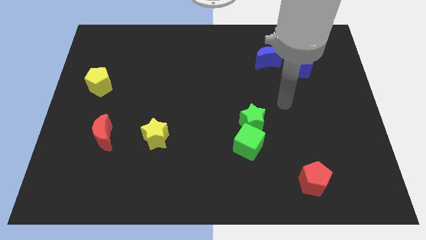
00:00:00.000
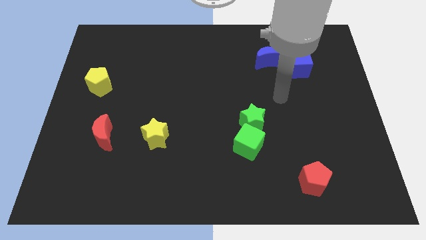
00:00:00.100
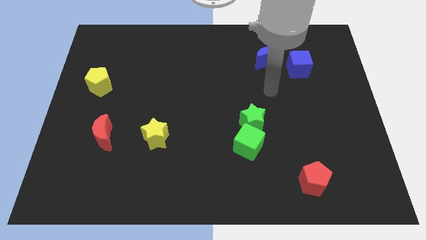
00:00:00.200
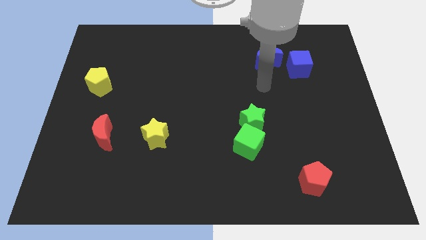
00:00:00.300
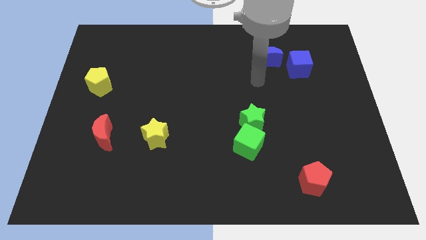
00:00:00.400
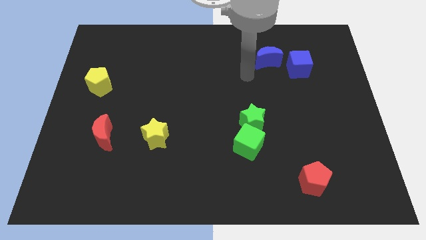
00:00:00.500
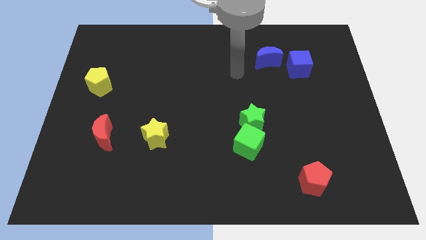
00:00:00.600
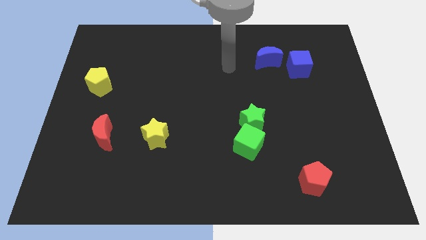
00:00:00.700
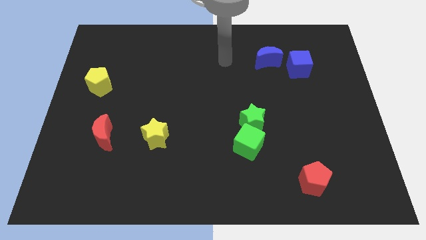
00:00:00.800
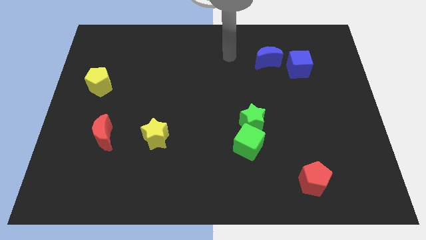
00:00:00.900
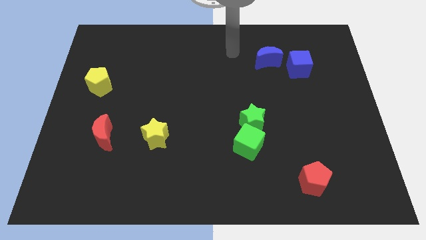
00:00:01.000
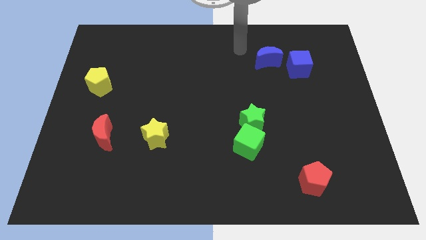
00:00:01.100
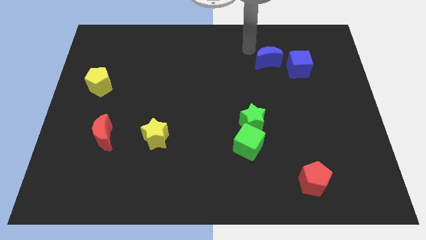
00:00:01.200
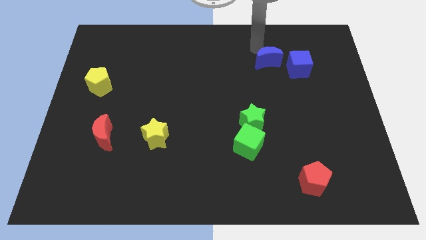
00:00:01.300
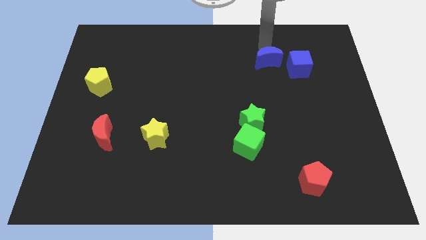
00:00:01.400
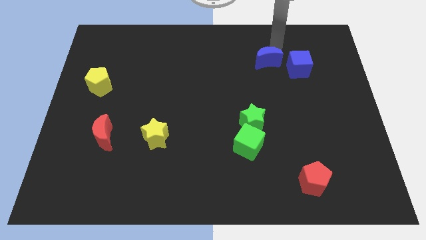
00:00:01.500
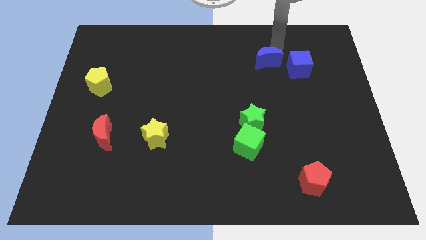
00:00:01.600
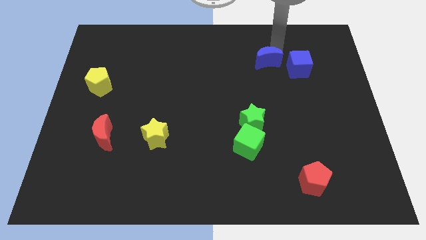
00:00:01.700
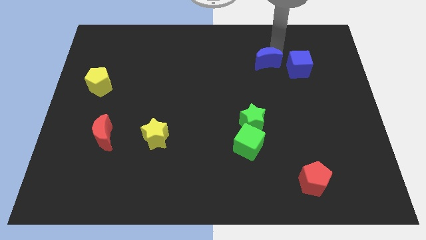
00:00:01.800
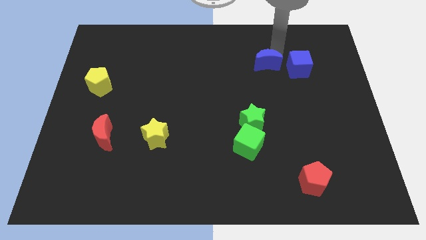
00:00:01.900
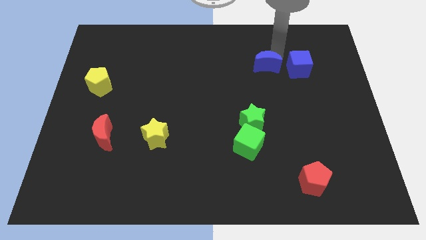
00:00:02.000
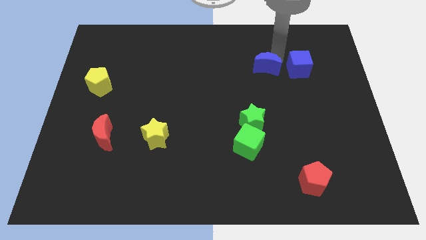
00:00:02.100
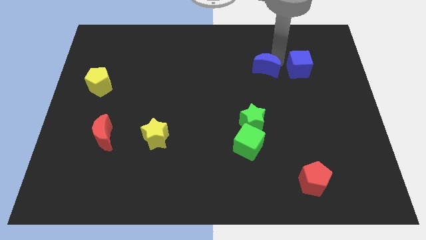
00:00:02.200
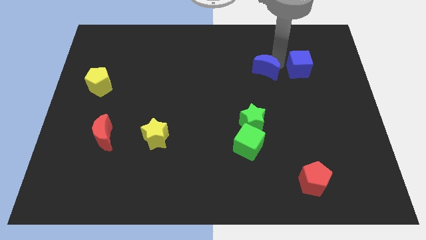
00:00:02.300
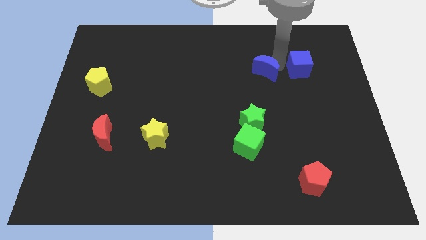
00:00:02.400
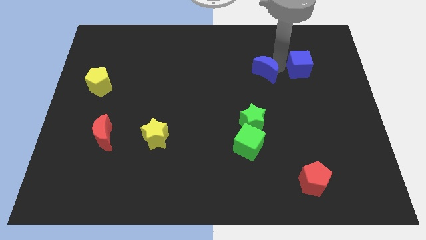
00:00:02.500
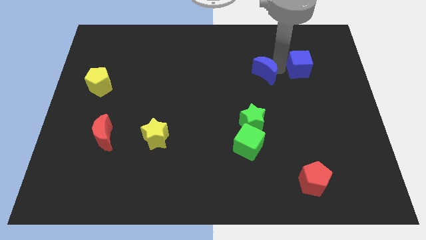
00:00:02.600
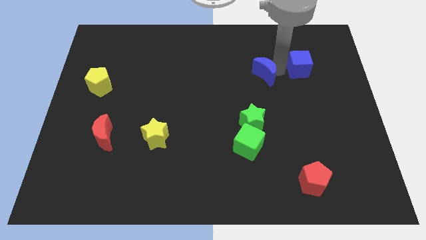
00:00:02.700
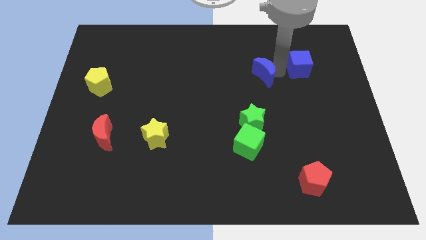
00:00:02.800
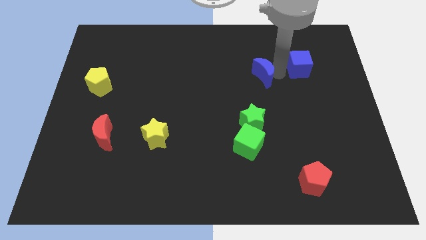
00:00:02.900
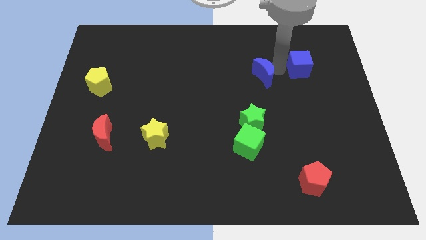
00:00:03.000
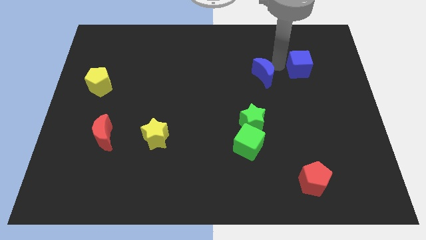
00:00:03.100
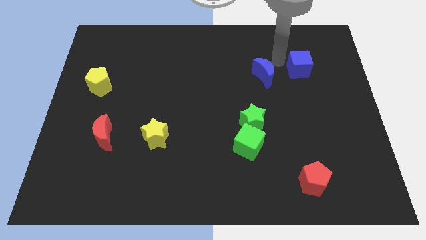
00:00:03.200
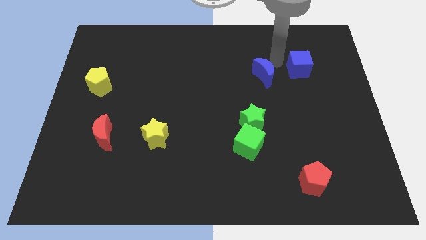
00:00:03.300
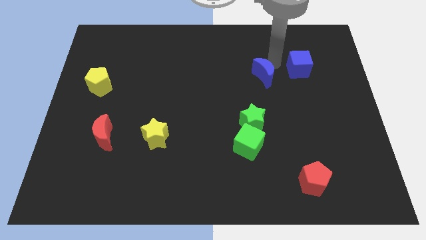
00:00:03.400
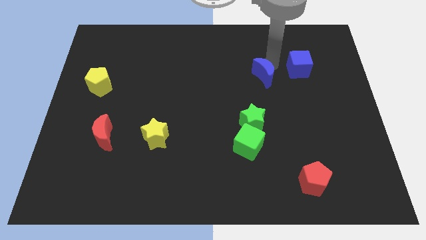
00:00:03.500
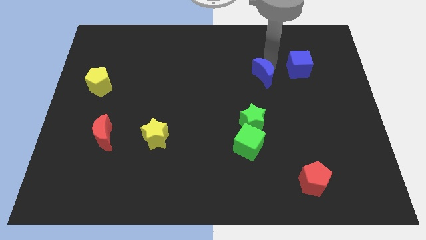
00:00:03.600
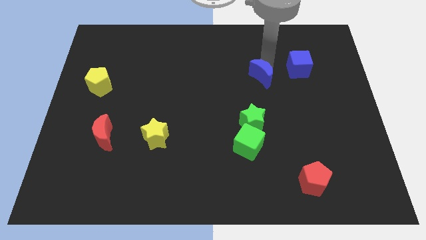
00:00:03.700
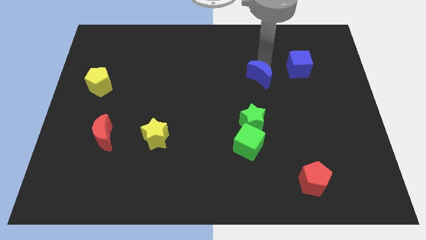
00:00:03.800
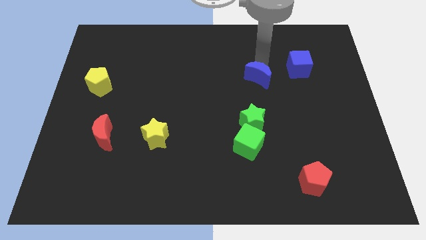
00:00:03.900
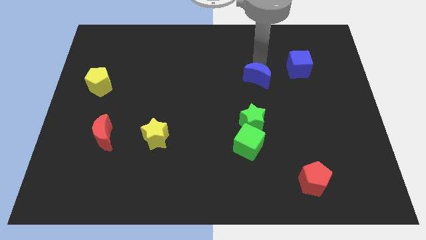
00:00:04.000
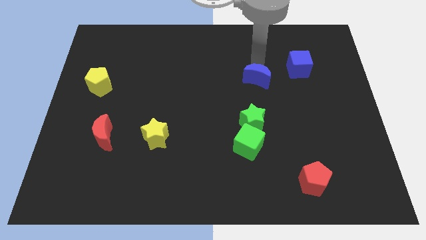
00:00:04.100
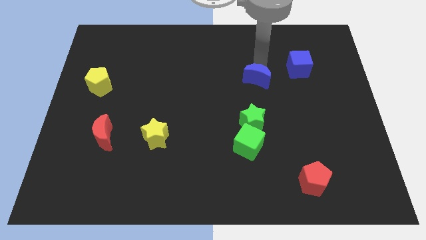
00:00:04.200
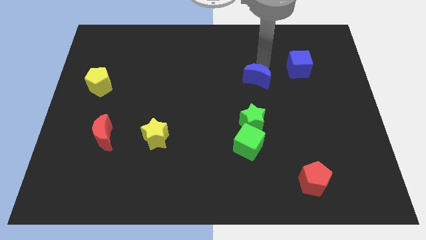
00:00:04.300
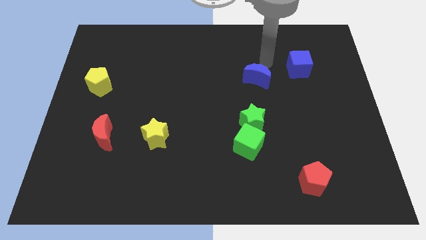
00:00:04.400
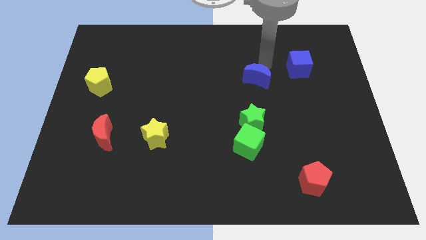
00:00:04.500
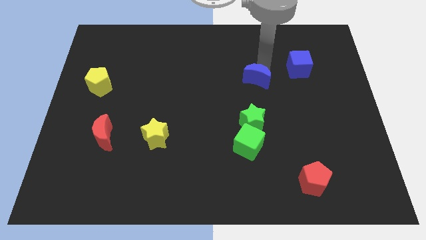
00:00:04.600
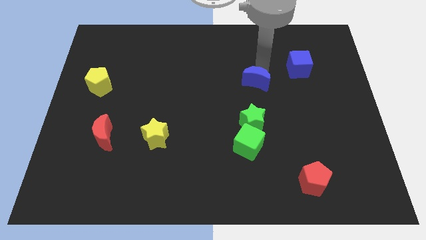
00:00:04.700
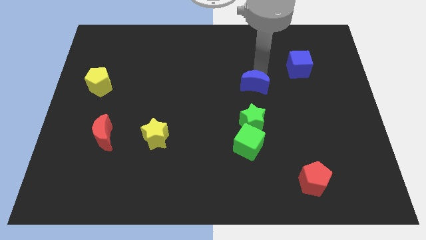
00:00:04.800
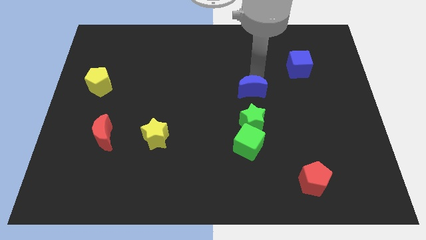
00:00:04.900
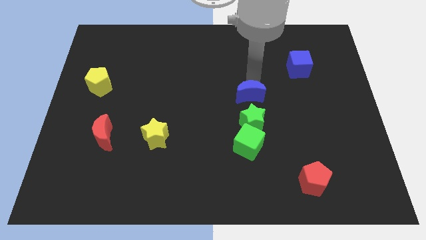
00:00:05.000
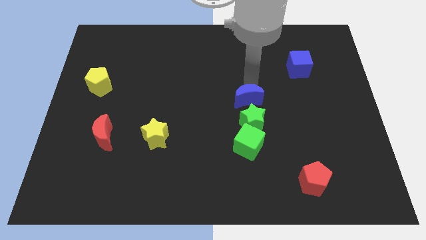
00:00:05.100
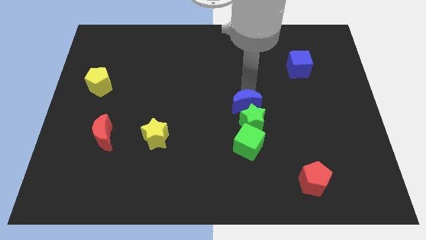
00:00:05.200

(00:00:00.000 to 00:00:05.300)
move the blue moon next to the green star

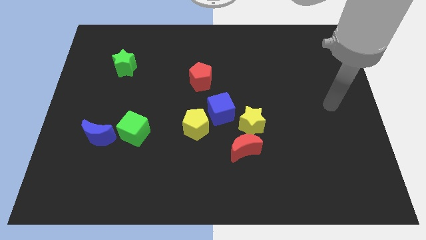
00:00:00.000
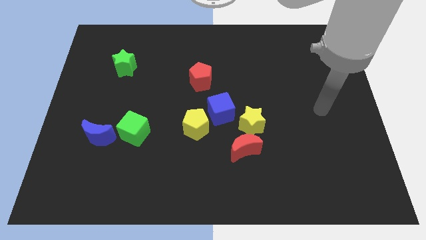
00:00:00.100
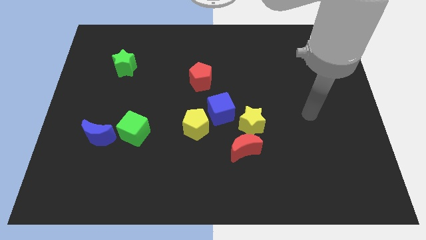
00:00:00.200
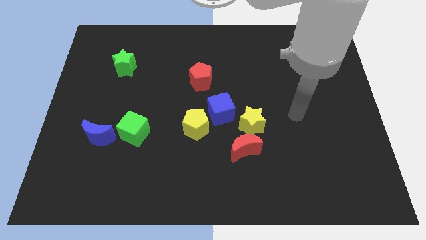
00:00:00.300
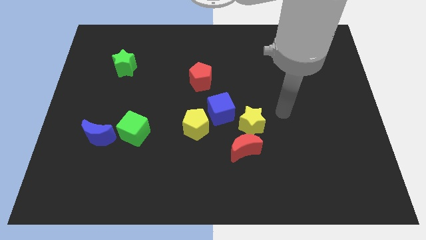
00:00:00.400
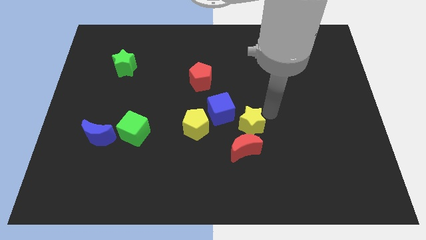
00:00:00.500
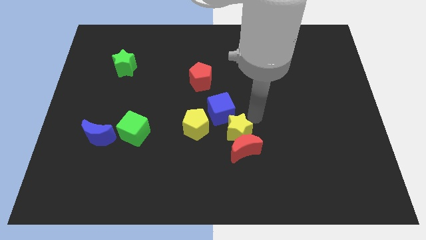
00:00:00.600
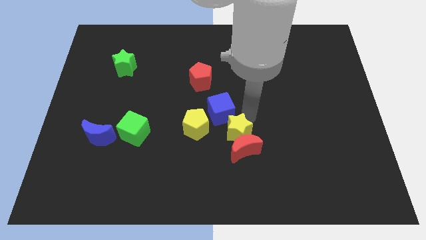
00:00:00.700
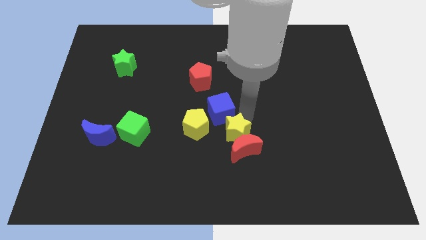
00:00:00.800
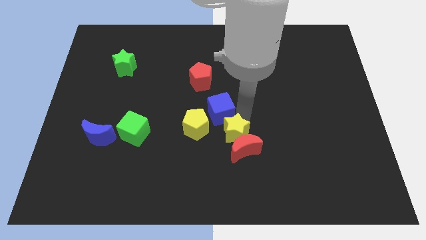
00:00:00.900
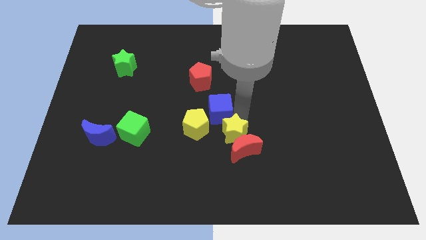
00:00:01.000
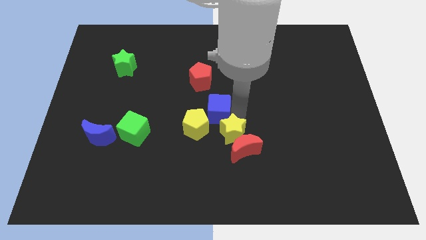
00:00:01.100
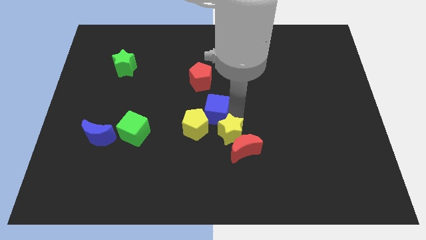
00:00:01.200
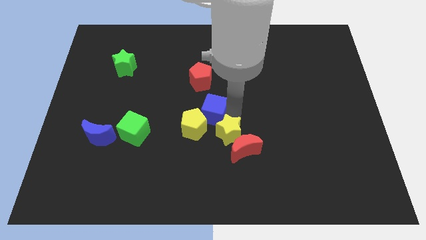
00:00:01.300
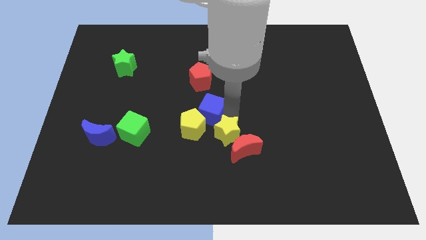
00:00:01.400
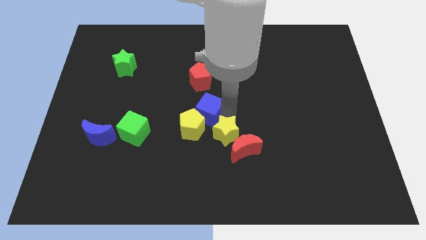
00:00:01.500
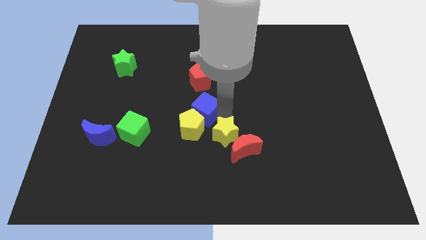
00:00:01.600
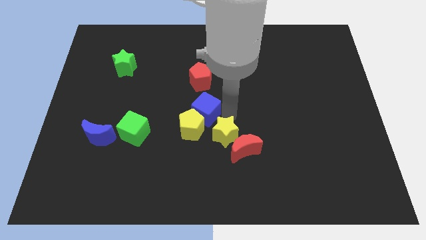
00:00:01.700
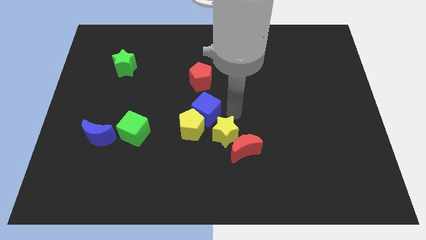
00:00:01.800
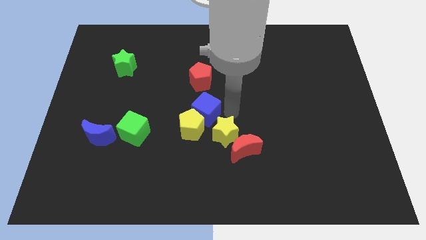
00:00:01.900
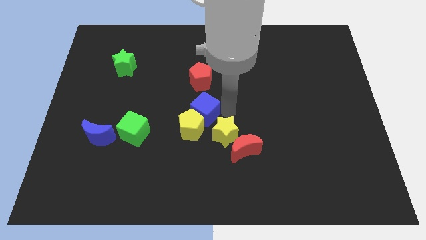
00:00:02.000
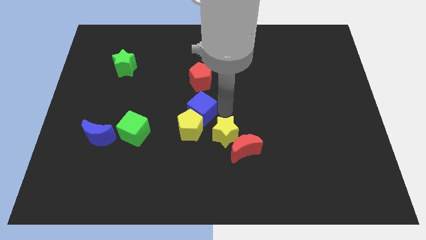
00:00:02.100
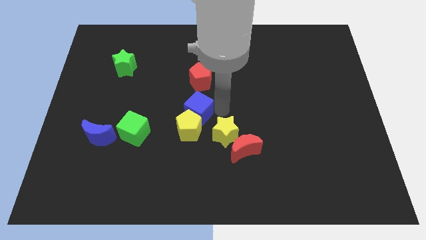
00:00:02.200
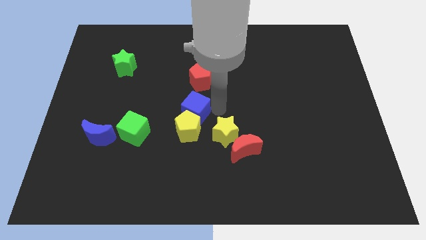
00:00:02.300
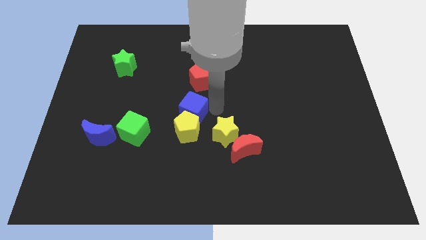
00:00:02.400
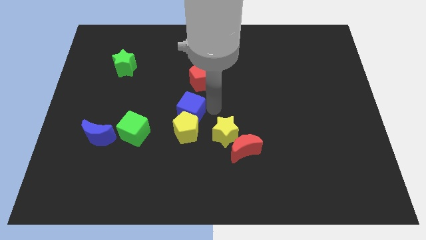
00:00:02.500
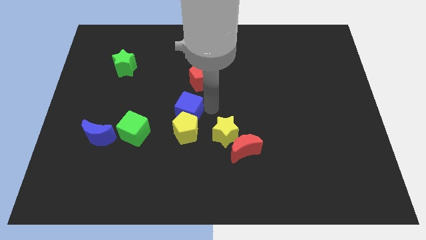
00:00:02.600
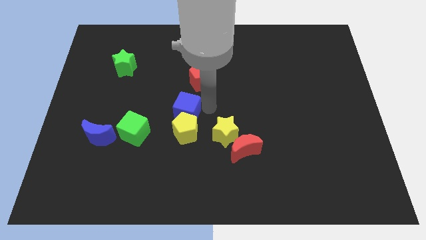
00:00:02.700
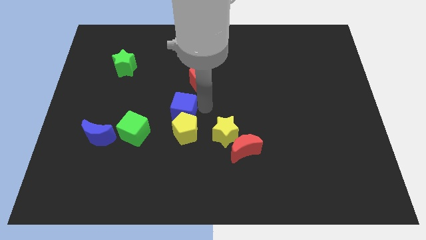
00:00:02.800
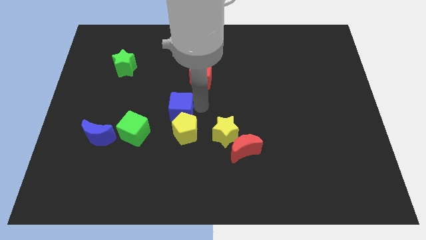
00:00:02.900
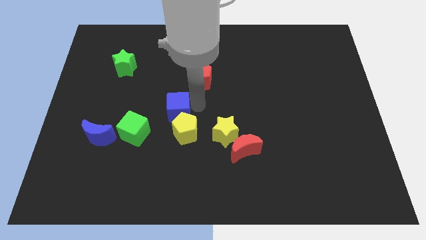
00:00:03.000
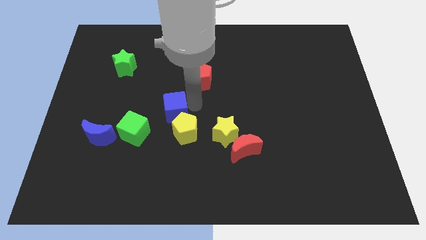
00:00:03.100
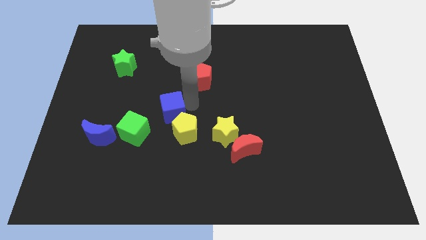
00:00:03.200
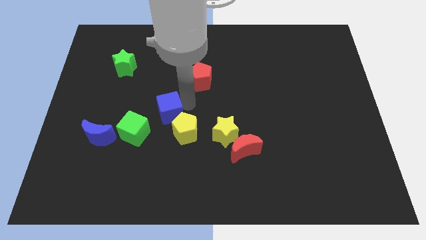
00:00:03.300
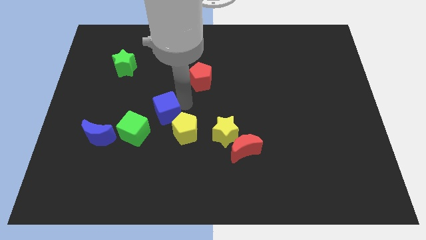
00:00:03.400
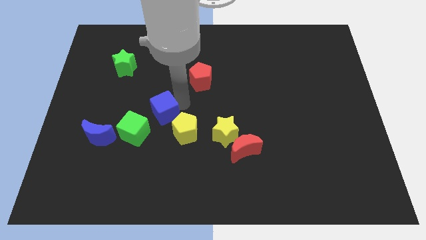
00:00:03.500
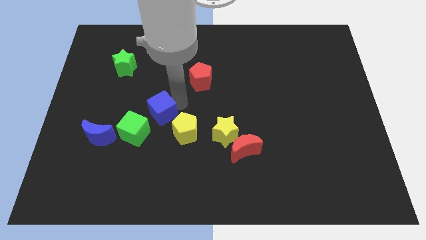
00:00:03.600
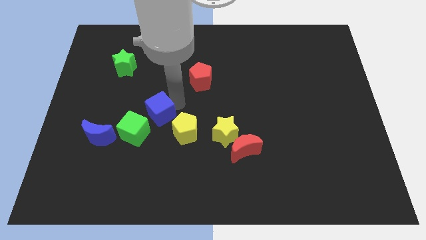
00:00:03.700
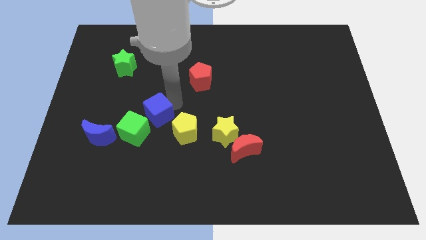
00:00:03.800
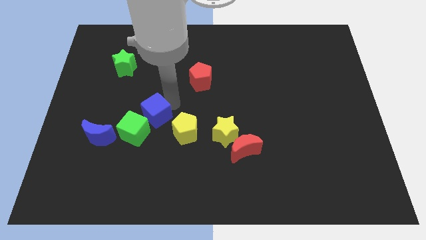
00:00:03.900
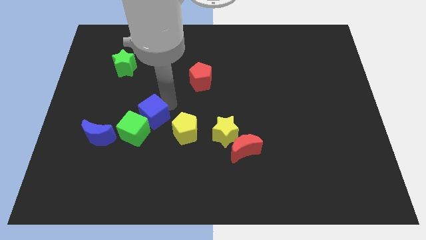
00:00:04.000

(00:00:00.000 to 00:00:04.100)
push the blue cube next to the green cube
